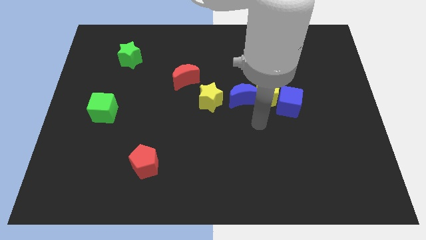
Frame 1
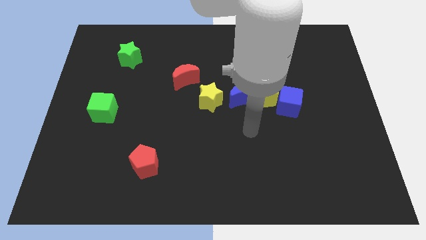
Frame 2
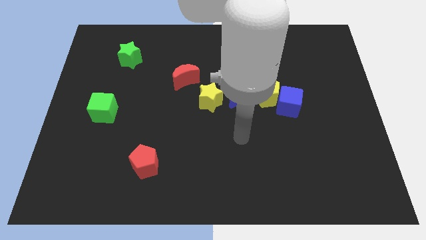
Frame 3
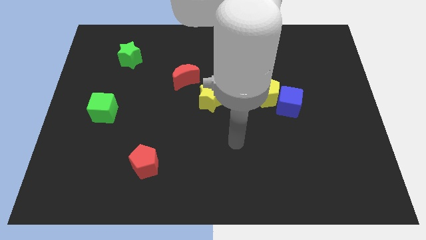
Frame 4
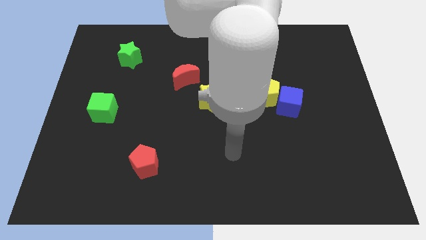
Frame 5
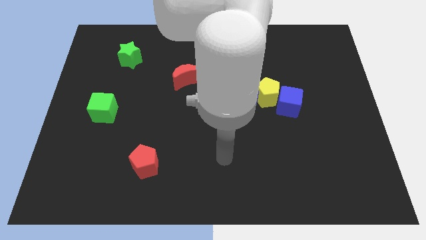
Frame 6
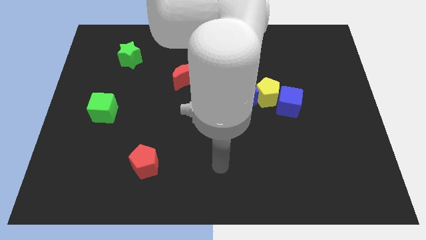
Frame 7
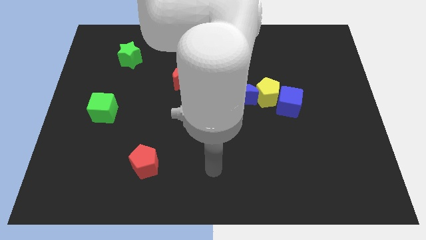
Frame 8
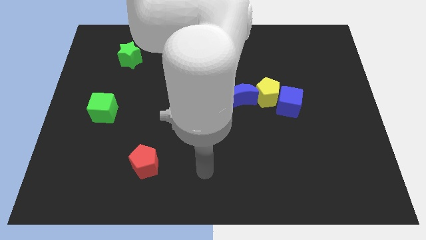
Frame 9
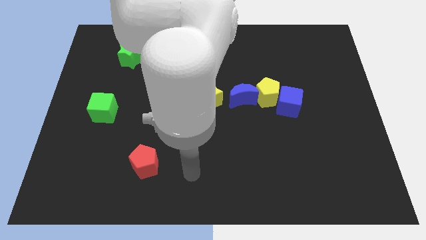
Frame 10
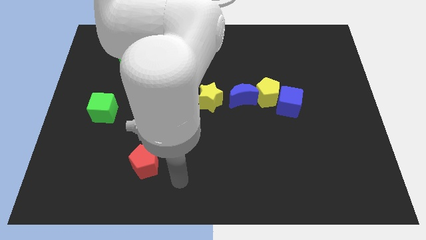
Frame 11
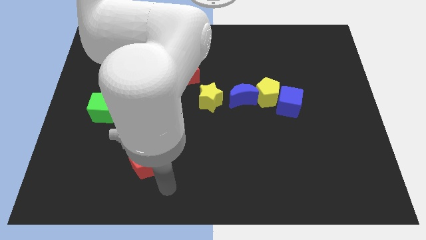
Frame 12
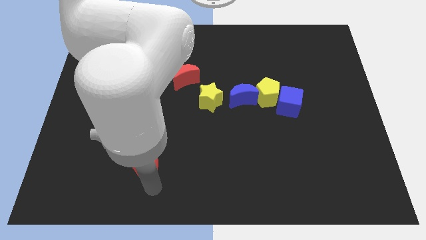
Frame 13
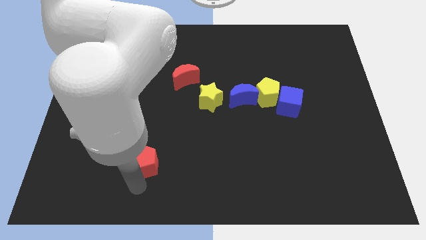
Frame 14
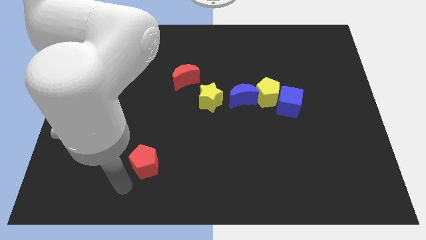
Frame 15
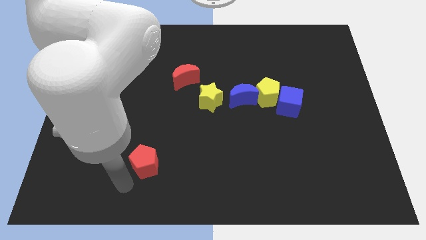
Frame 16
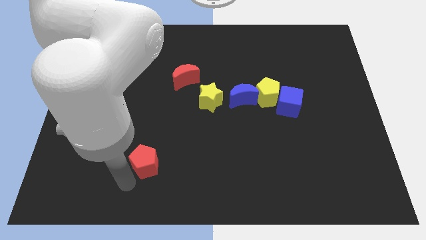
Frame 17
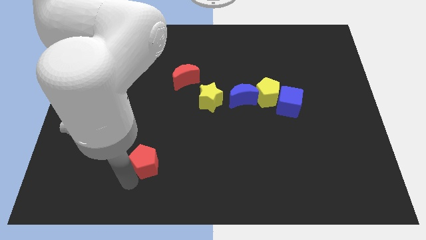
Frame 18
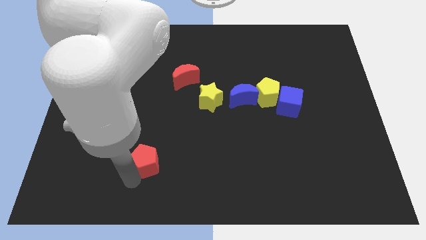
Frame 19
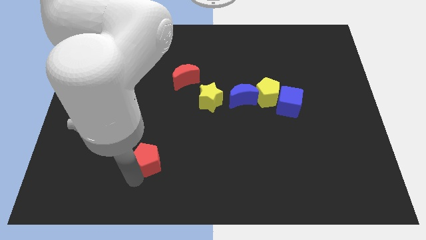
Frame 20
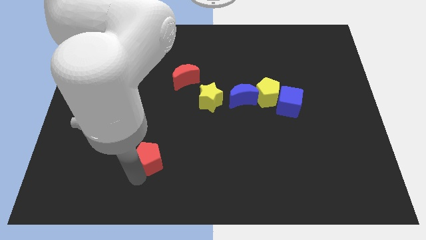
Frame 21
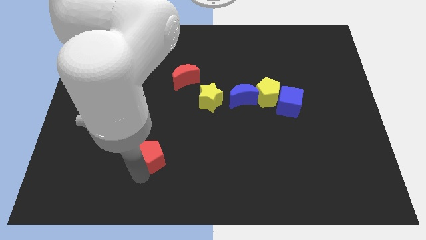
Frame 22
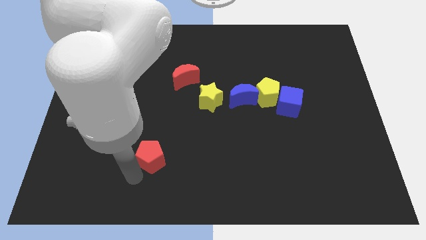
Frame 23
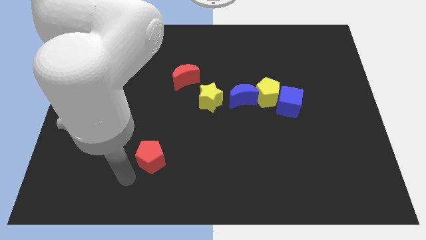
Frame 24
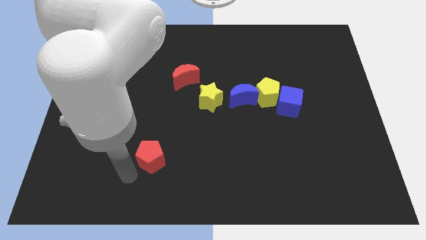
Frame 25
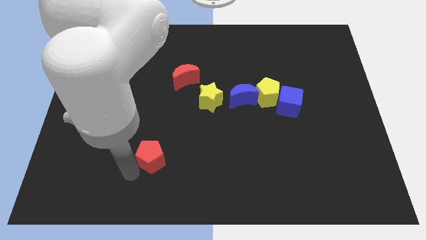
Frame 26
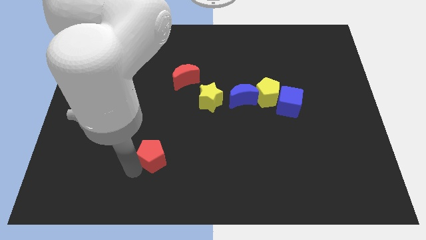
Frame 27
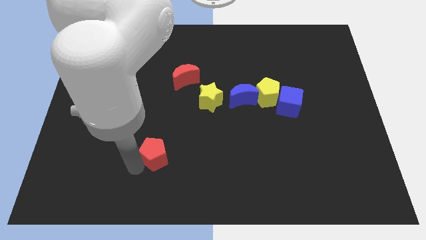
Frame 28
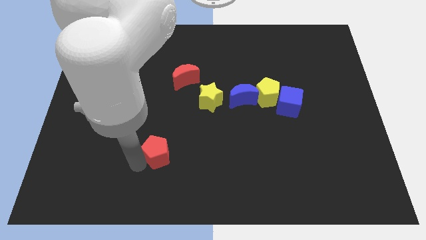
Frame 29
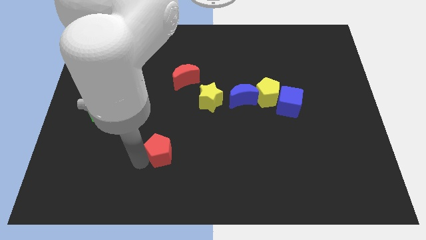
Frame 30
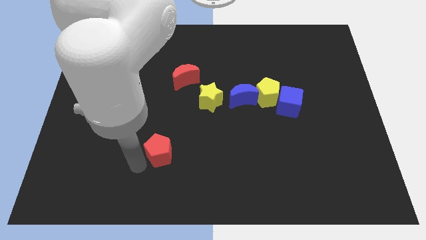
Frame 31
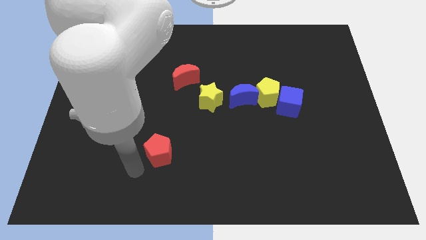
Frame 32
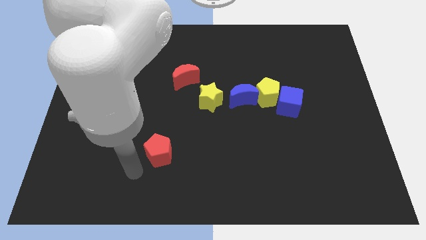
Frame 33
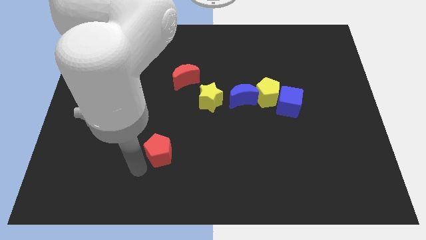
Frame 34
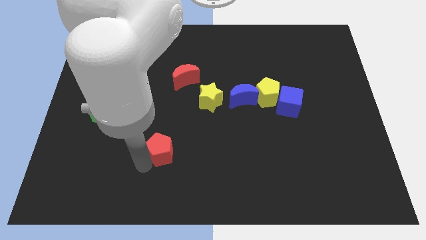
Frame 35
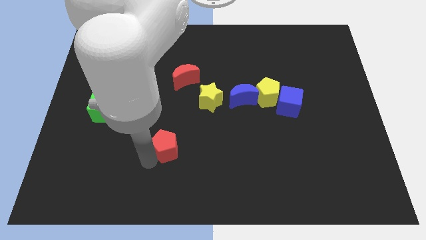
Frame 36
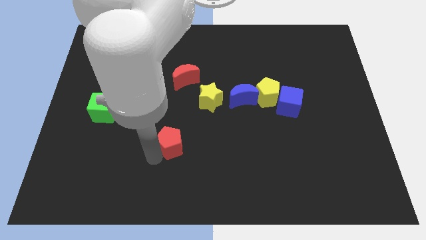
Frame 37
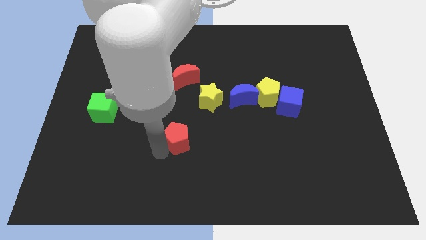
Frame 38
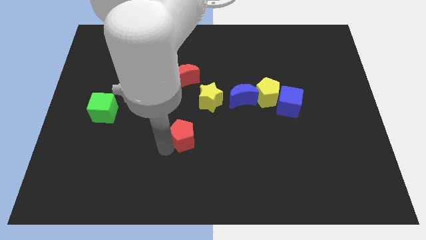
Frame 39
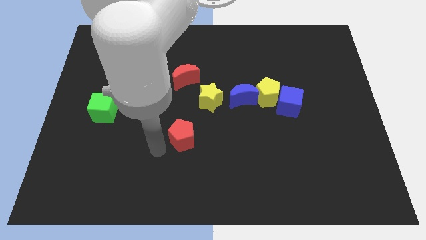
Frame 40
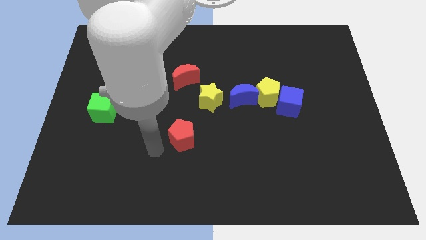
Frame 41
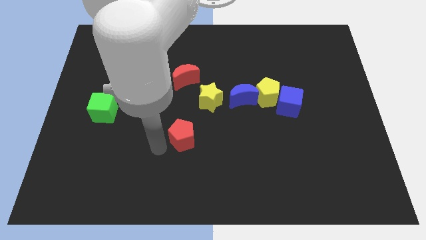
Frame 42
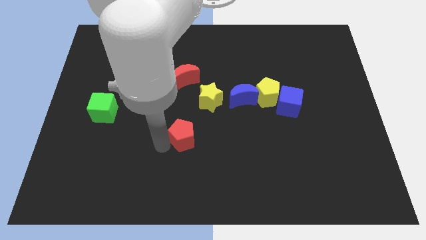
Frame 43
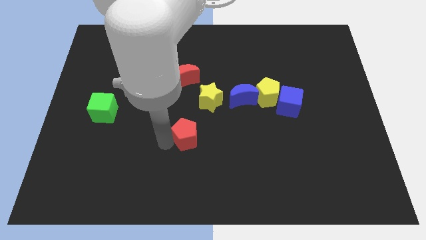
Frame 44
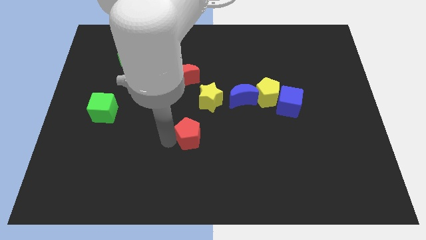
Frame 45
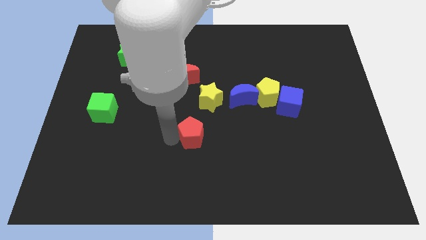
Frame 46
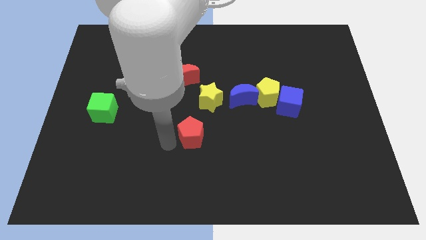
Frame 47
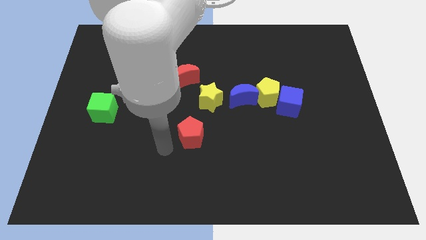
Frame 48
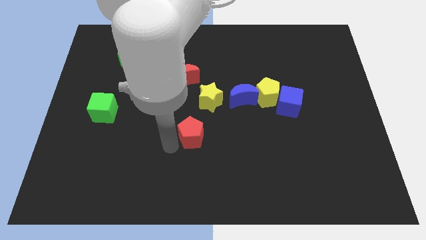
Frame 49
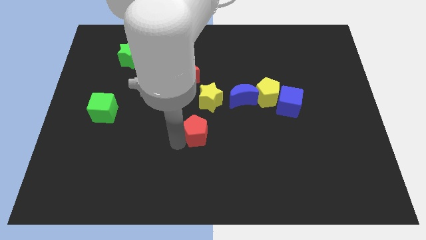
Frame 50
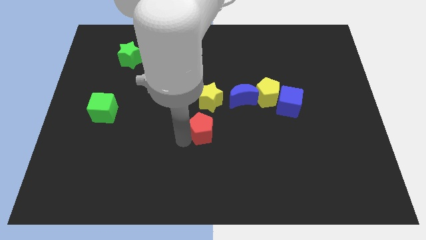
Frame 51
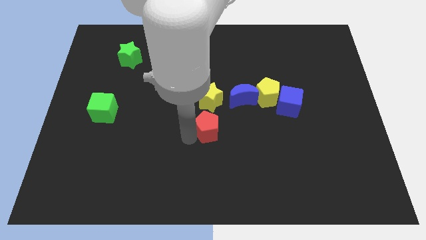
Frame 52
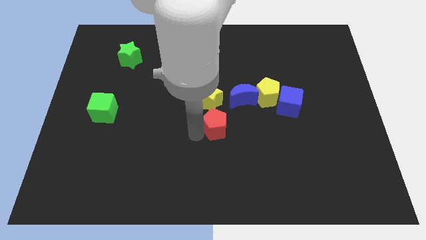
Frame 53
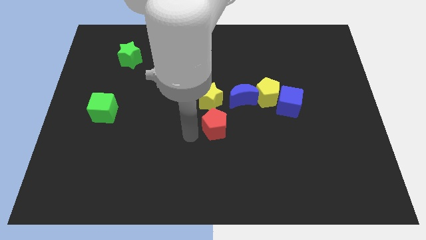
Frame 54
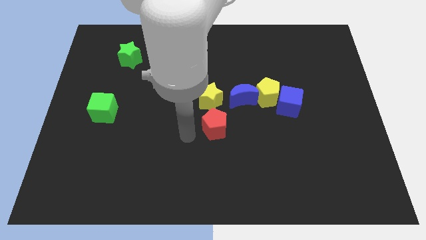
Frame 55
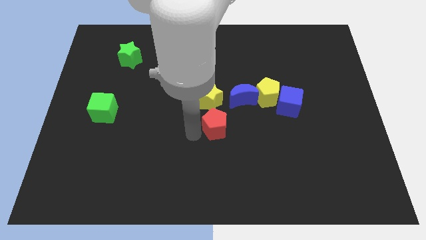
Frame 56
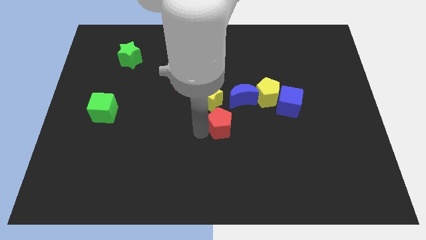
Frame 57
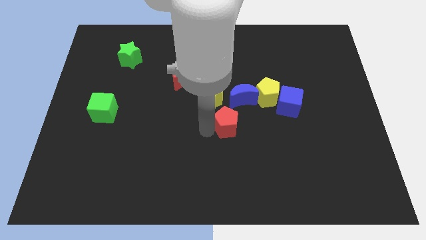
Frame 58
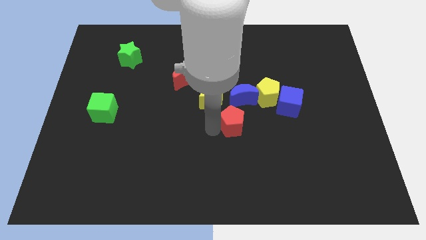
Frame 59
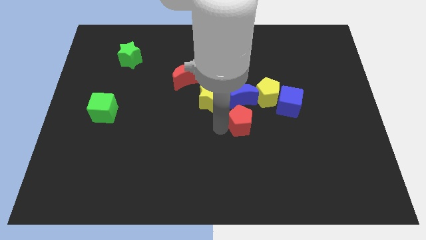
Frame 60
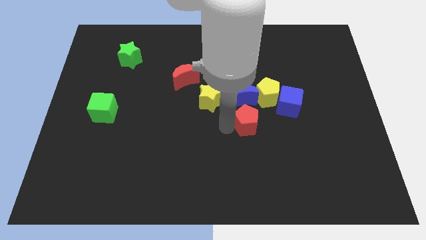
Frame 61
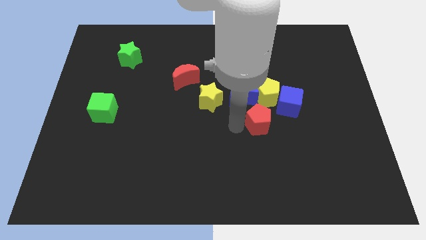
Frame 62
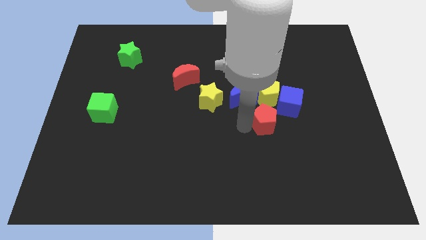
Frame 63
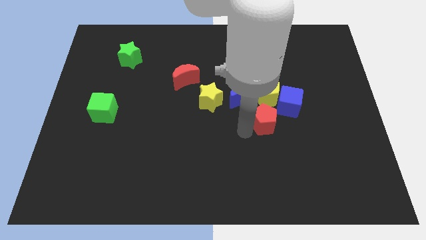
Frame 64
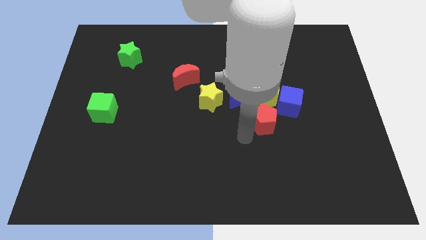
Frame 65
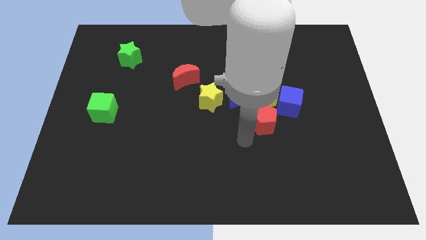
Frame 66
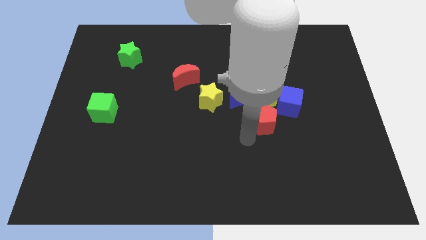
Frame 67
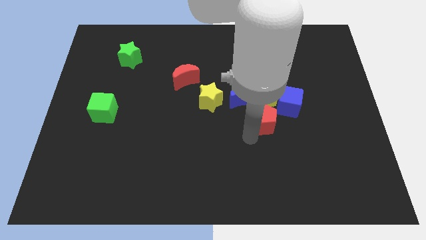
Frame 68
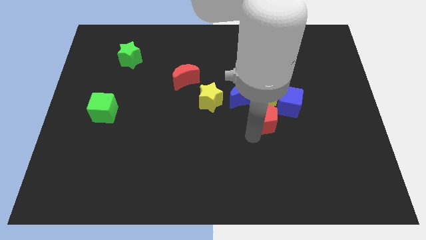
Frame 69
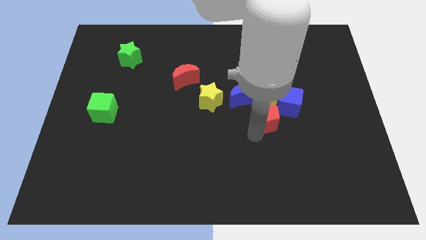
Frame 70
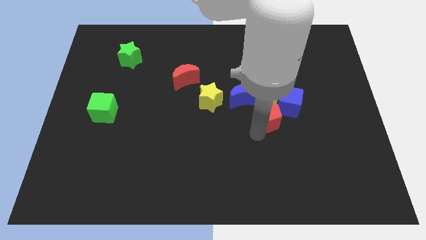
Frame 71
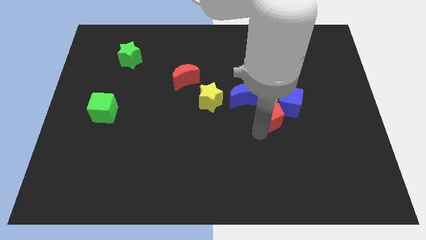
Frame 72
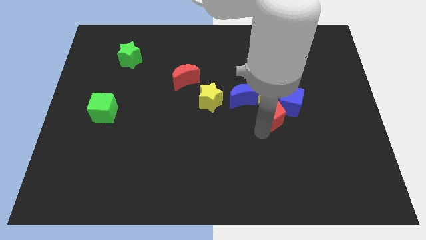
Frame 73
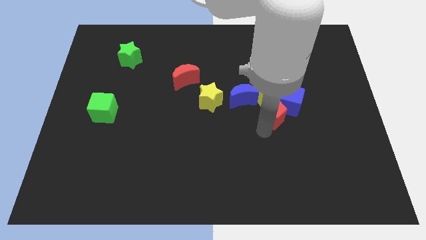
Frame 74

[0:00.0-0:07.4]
move the red pentagon next to the blue cube
